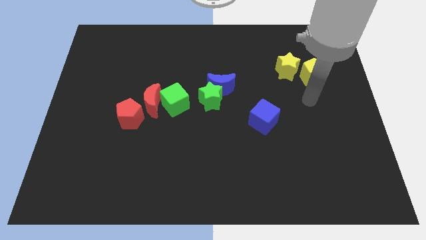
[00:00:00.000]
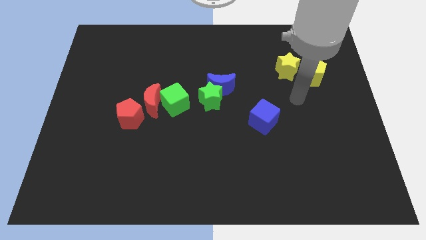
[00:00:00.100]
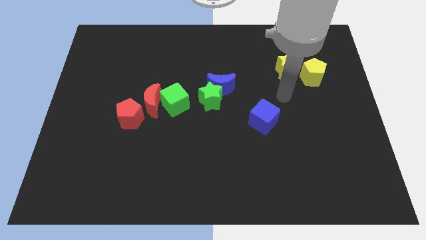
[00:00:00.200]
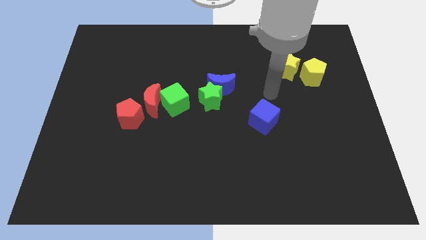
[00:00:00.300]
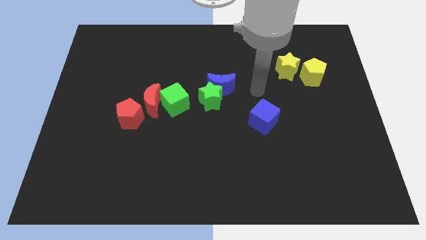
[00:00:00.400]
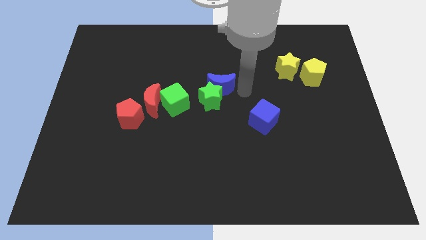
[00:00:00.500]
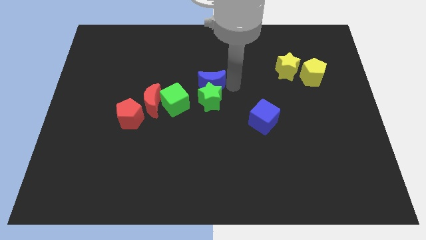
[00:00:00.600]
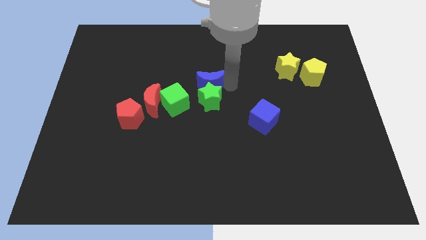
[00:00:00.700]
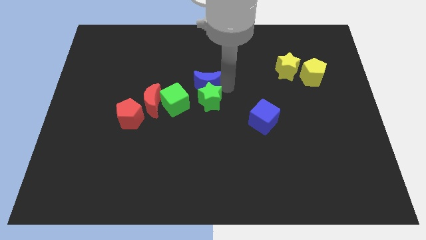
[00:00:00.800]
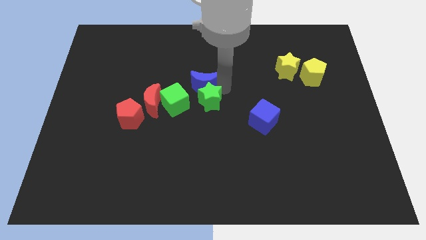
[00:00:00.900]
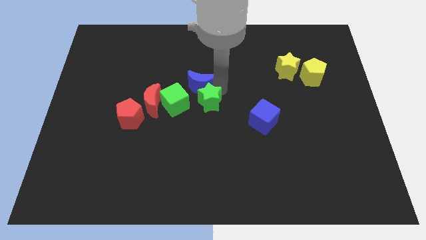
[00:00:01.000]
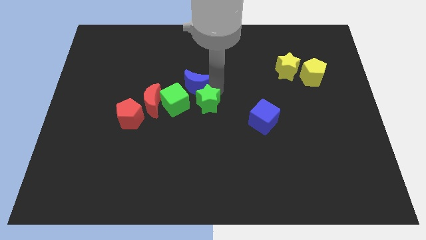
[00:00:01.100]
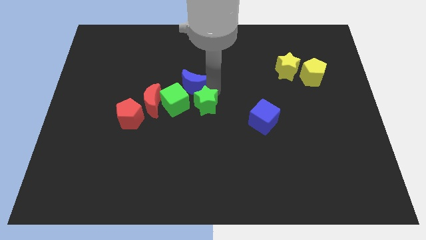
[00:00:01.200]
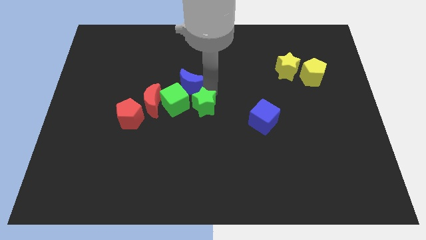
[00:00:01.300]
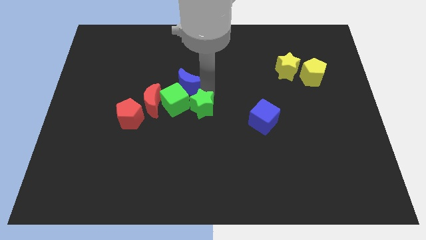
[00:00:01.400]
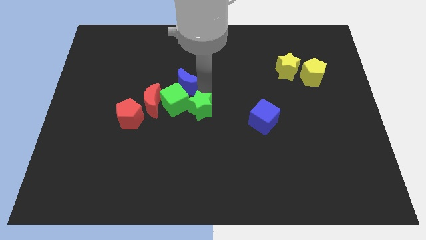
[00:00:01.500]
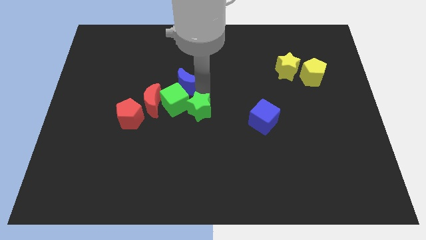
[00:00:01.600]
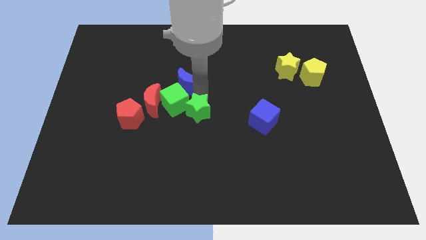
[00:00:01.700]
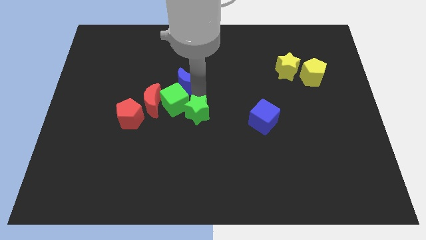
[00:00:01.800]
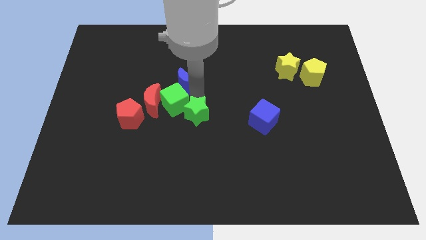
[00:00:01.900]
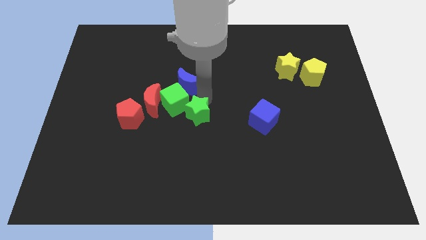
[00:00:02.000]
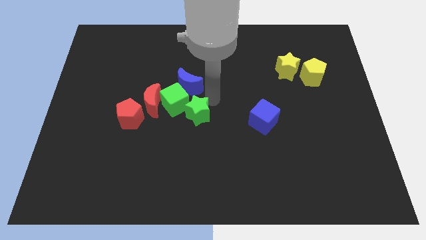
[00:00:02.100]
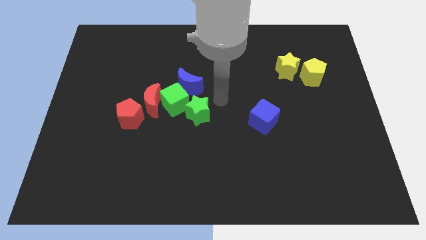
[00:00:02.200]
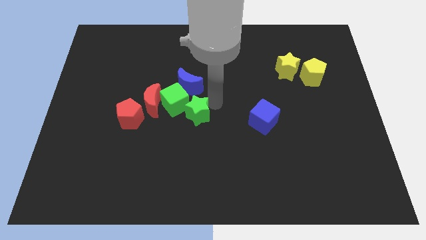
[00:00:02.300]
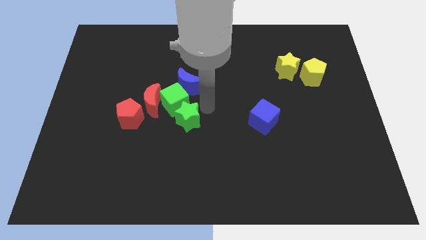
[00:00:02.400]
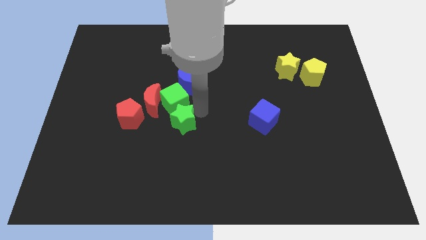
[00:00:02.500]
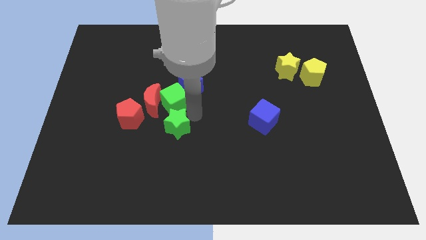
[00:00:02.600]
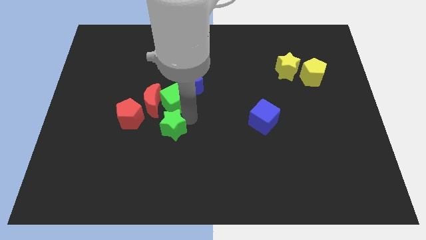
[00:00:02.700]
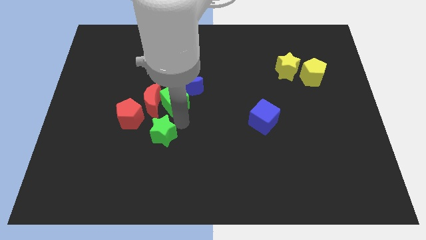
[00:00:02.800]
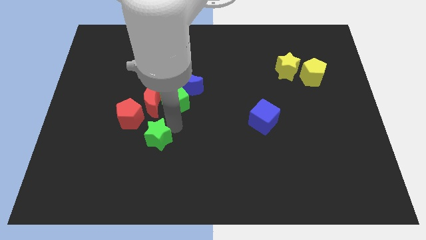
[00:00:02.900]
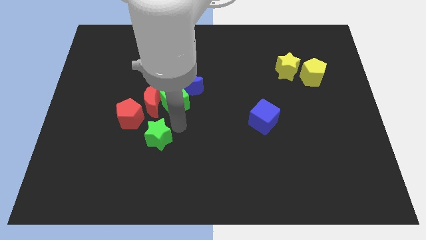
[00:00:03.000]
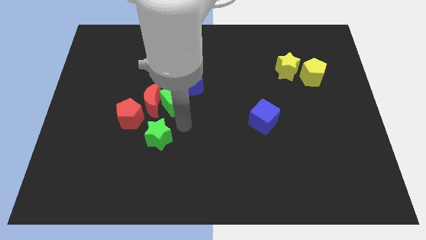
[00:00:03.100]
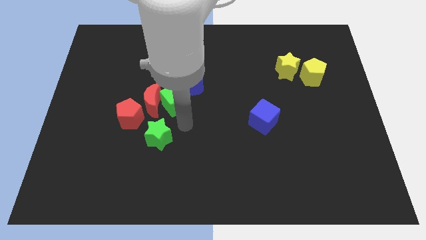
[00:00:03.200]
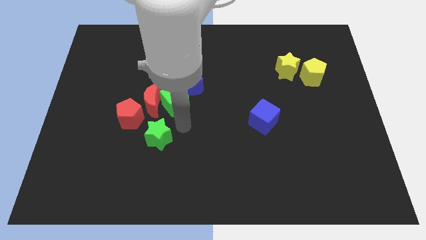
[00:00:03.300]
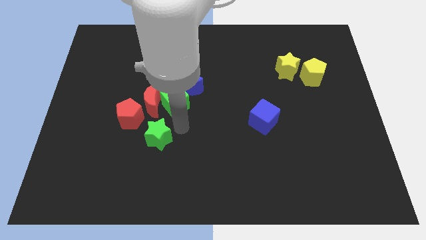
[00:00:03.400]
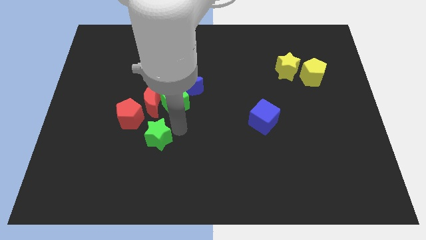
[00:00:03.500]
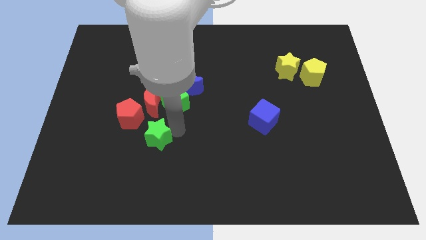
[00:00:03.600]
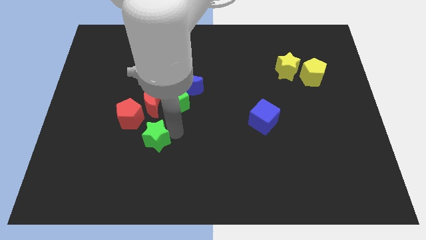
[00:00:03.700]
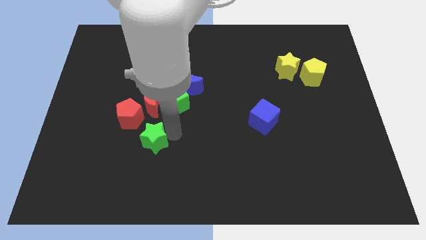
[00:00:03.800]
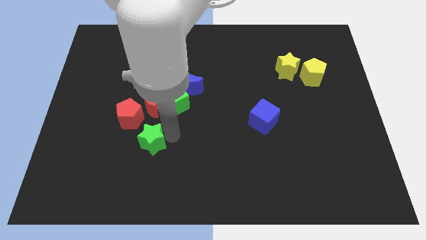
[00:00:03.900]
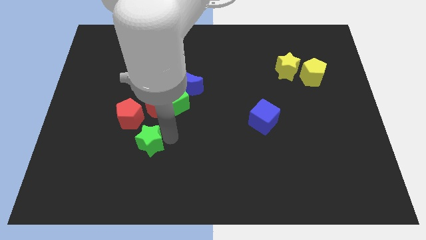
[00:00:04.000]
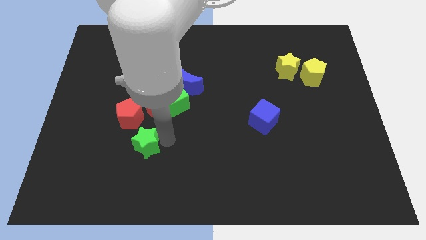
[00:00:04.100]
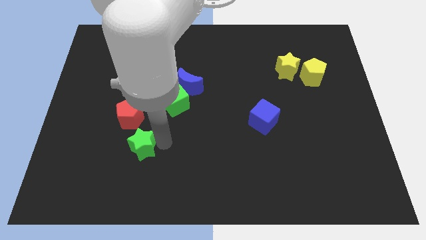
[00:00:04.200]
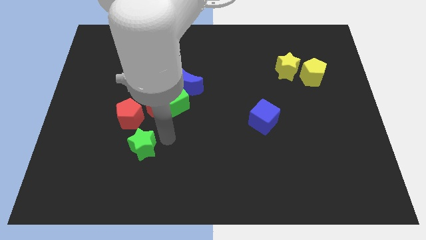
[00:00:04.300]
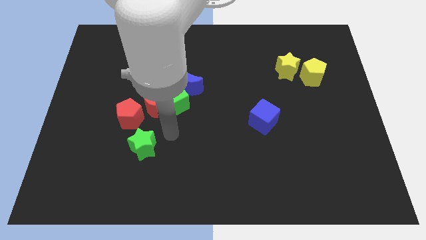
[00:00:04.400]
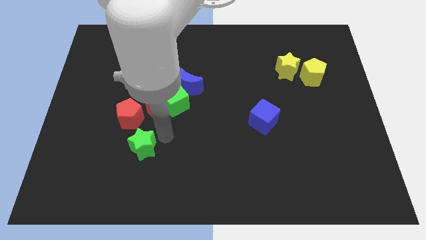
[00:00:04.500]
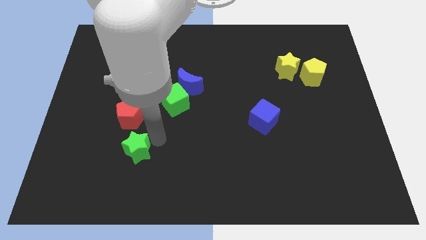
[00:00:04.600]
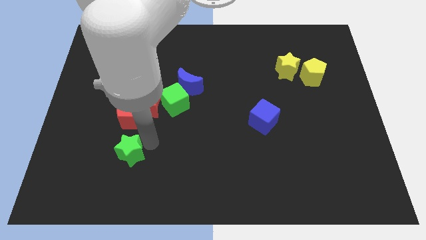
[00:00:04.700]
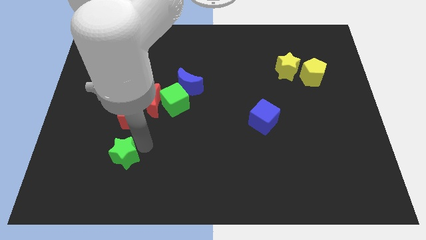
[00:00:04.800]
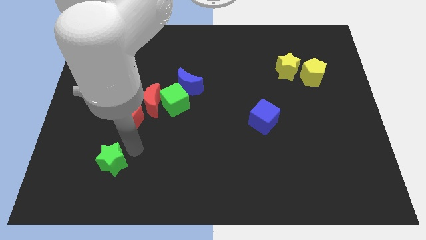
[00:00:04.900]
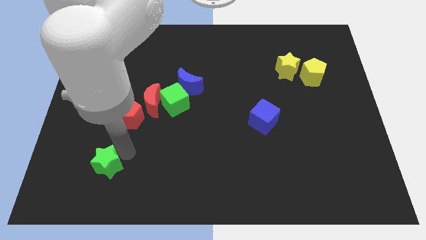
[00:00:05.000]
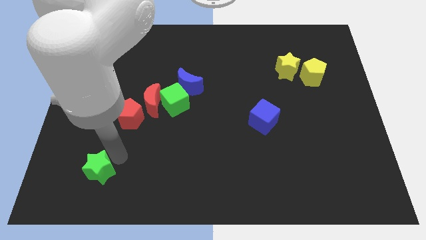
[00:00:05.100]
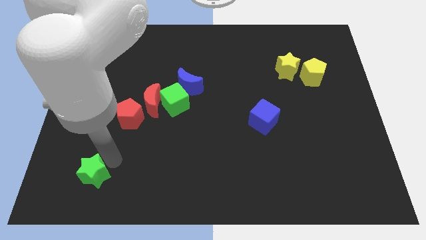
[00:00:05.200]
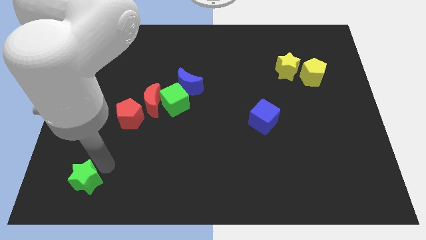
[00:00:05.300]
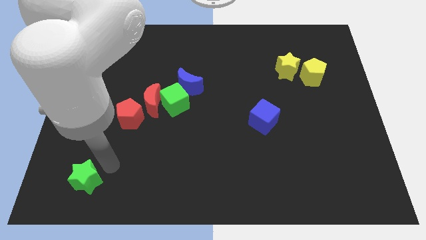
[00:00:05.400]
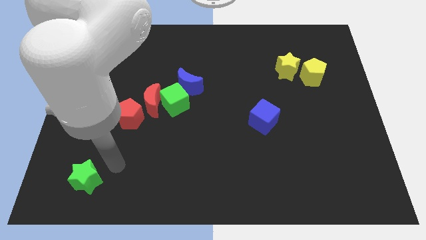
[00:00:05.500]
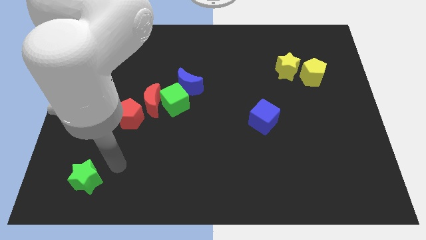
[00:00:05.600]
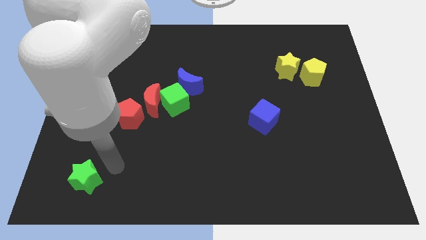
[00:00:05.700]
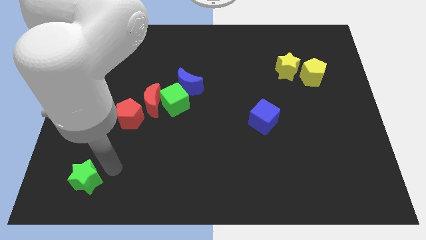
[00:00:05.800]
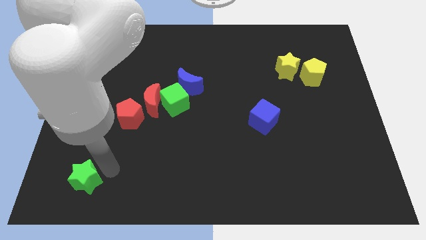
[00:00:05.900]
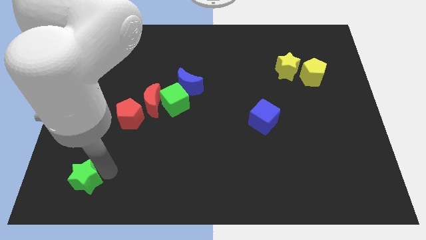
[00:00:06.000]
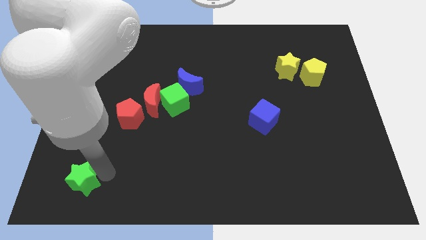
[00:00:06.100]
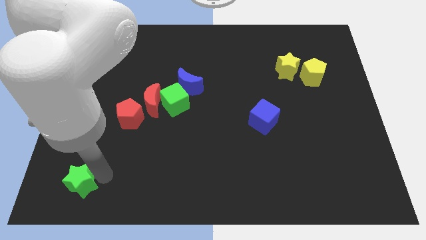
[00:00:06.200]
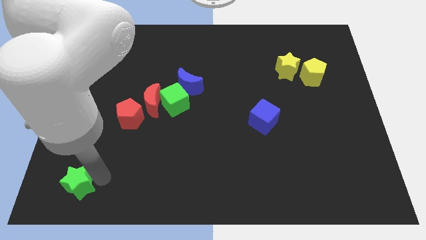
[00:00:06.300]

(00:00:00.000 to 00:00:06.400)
push the green star to the bottom left of the board
